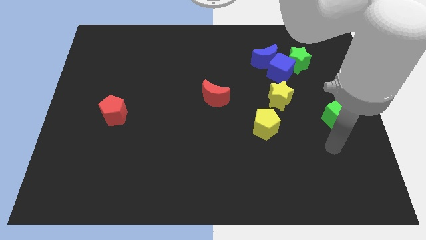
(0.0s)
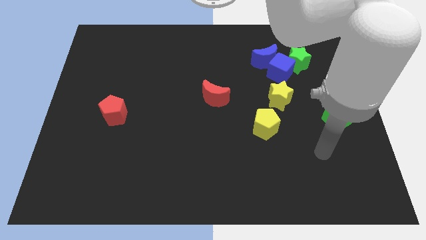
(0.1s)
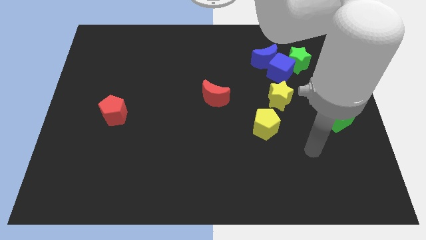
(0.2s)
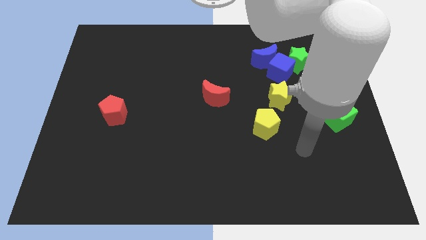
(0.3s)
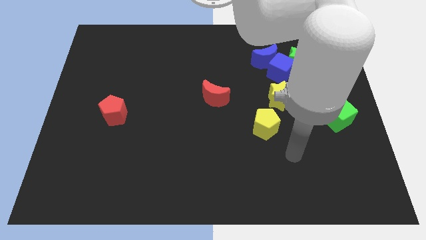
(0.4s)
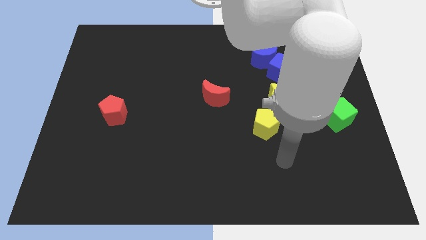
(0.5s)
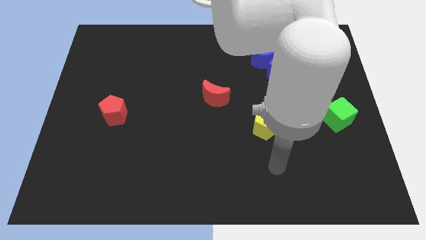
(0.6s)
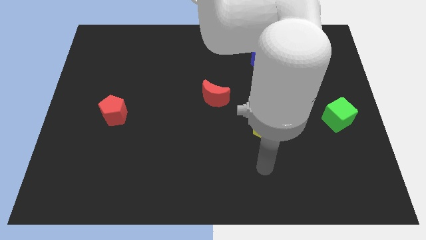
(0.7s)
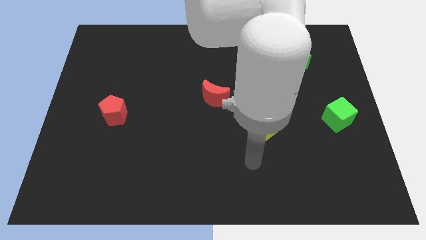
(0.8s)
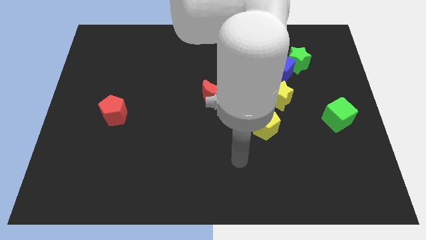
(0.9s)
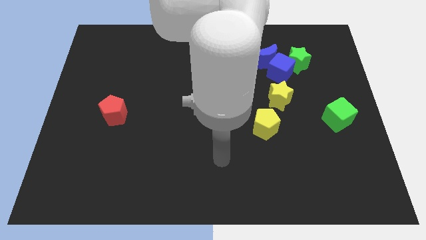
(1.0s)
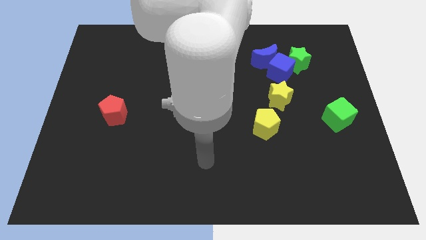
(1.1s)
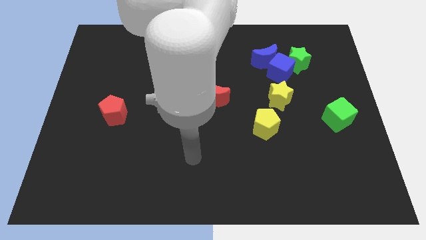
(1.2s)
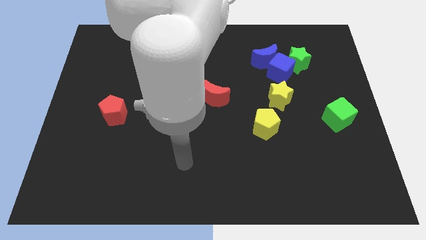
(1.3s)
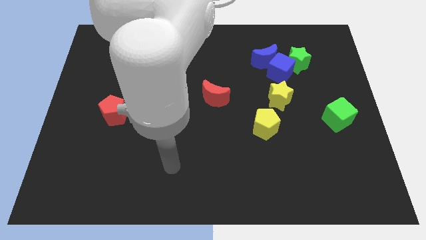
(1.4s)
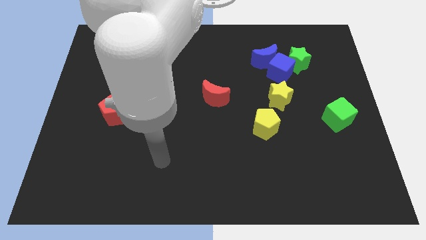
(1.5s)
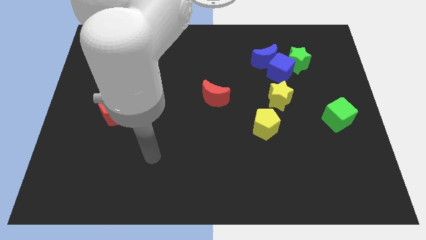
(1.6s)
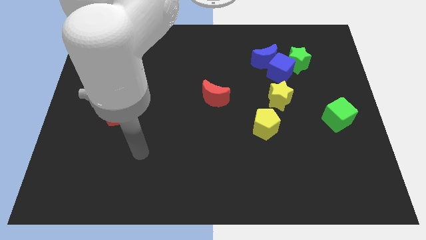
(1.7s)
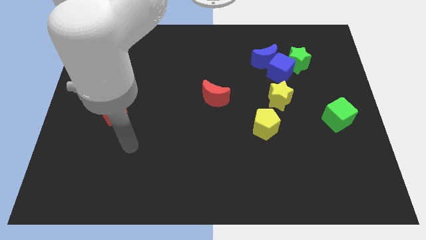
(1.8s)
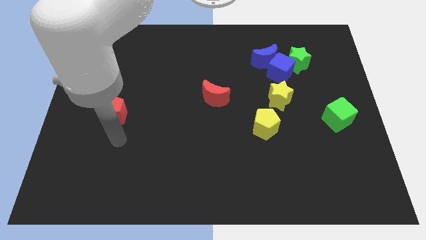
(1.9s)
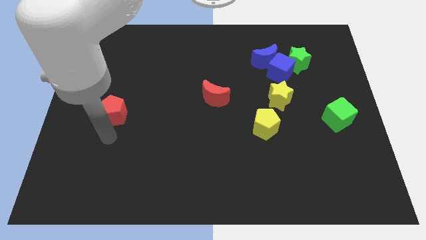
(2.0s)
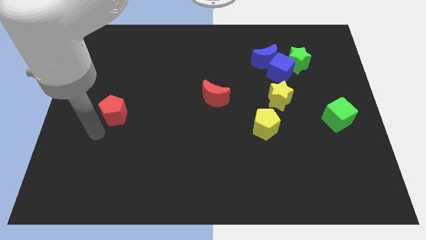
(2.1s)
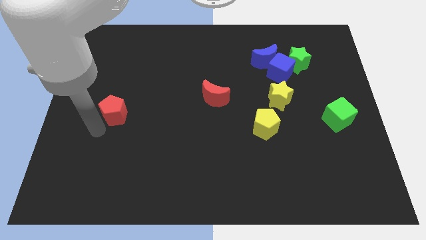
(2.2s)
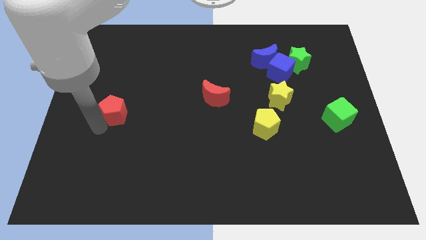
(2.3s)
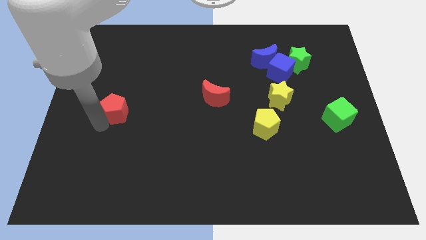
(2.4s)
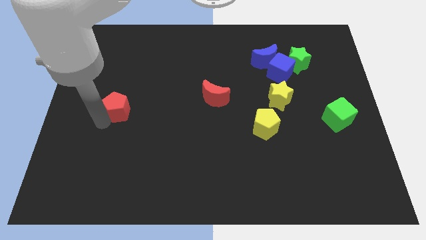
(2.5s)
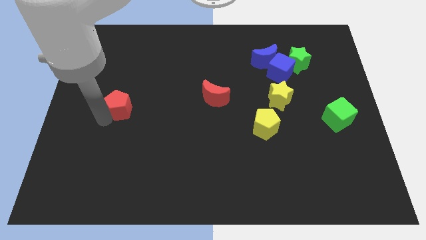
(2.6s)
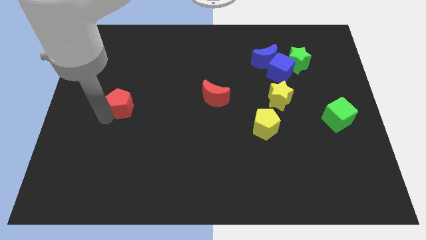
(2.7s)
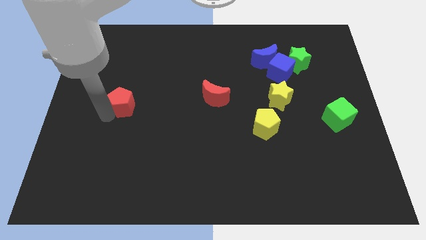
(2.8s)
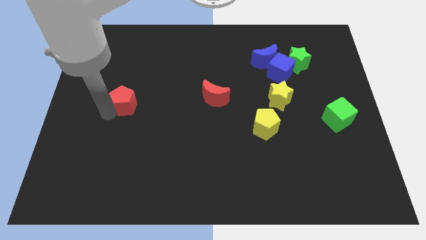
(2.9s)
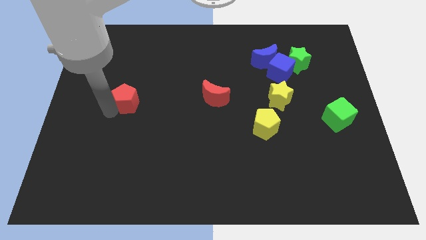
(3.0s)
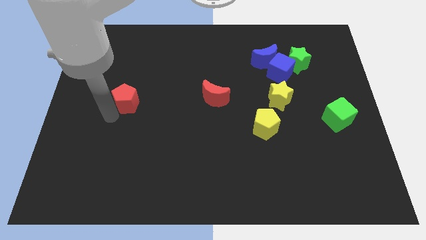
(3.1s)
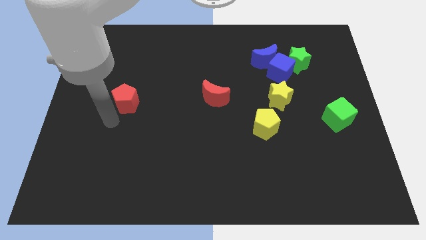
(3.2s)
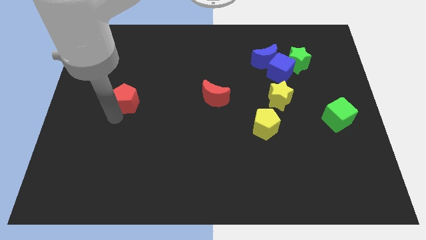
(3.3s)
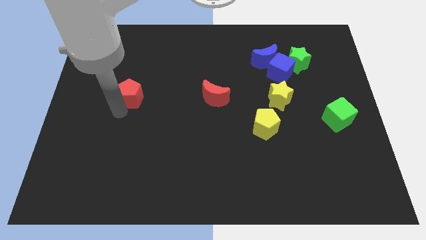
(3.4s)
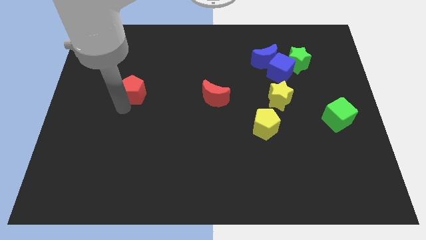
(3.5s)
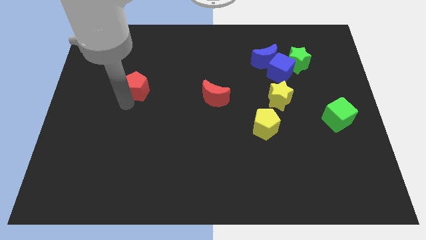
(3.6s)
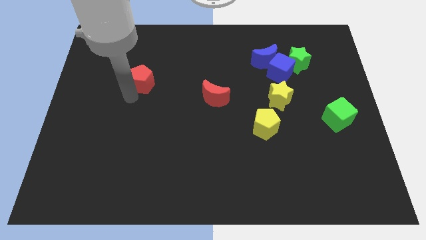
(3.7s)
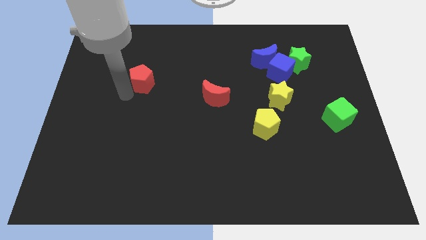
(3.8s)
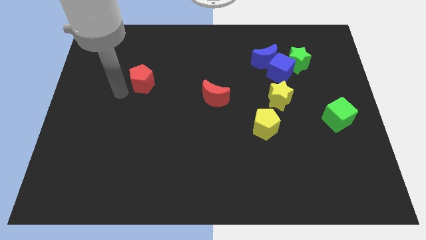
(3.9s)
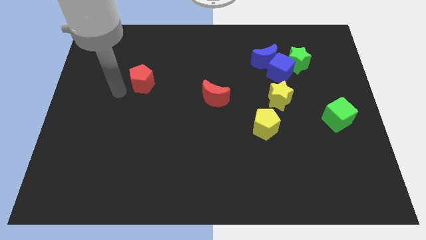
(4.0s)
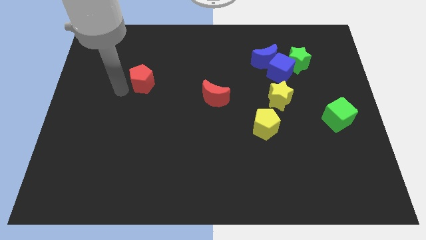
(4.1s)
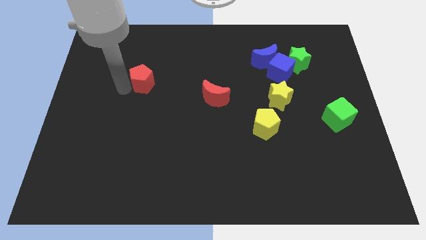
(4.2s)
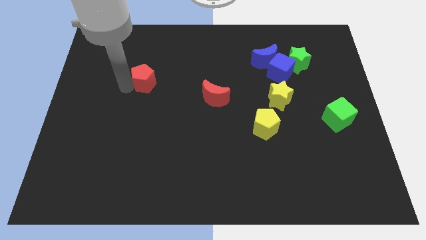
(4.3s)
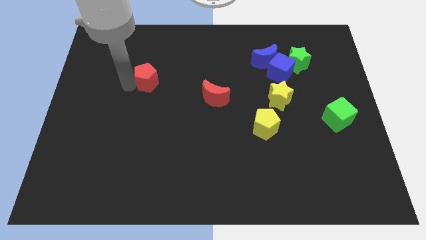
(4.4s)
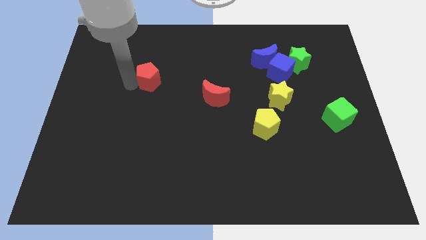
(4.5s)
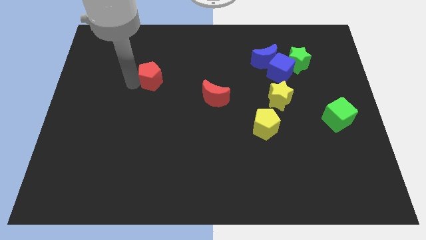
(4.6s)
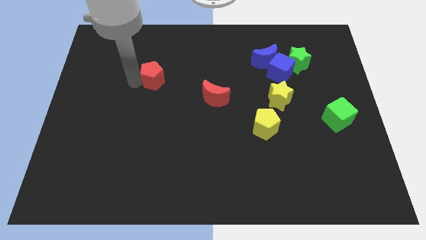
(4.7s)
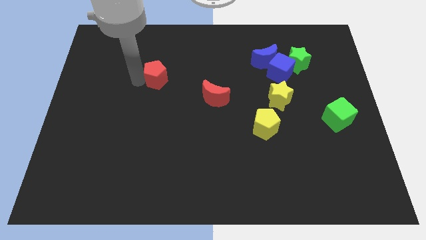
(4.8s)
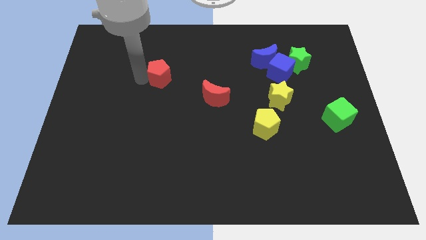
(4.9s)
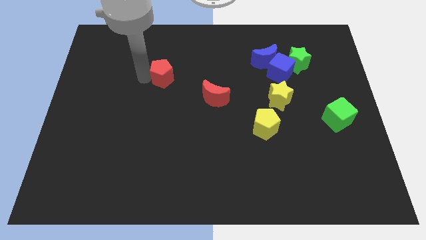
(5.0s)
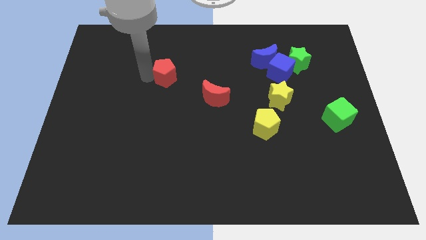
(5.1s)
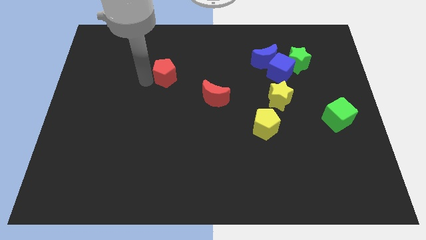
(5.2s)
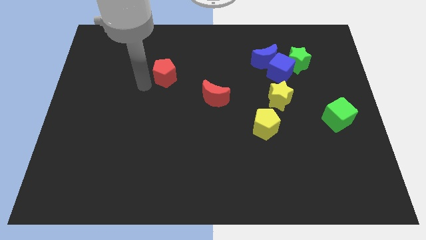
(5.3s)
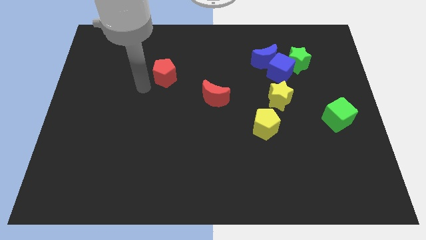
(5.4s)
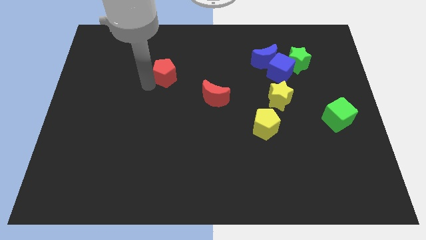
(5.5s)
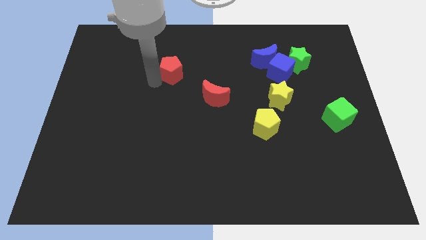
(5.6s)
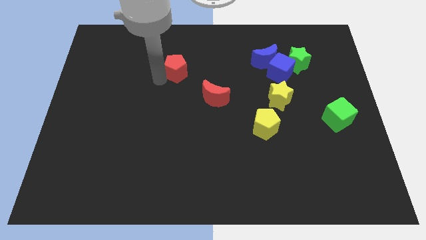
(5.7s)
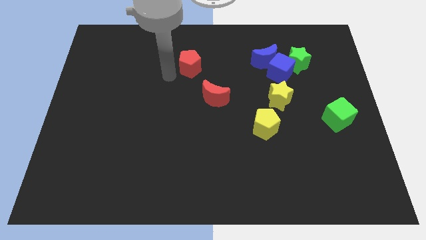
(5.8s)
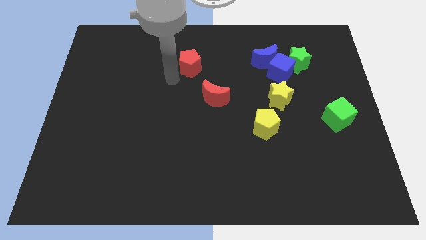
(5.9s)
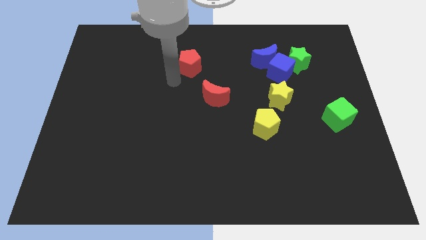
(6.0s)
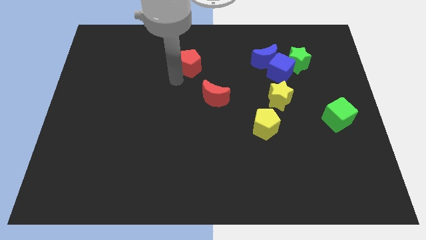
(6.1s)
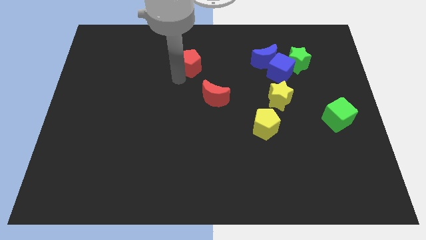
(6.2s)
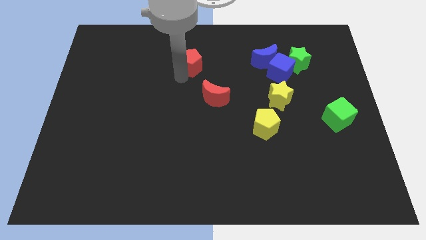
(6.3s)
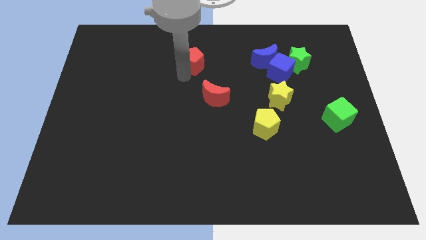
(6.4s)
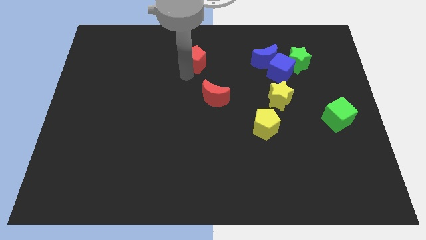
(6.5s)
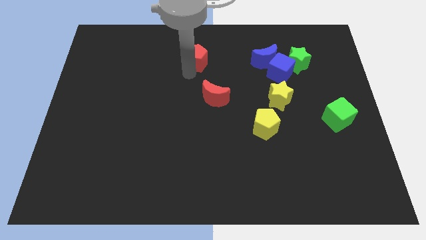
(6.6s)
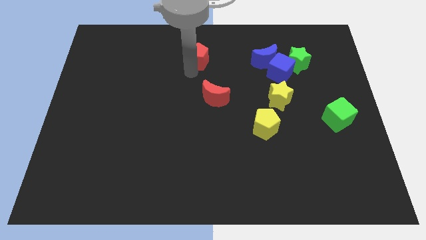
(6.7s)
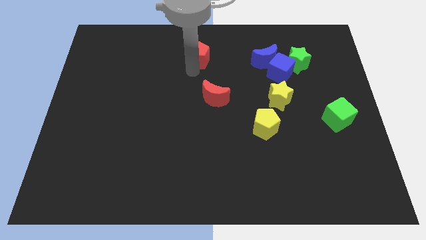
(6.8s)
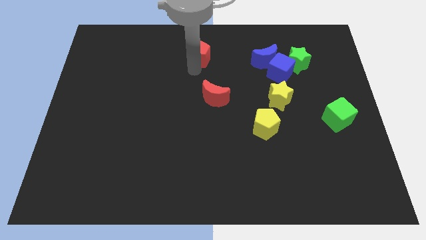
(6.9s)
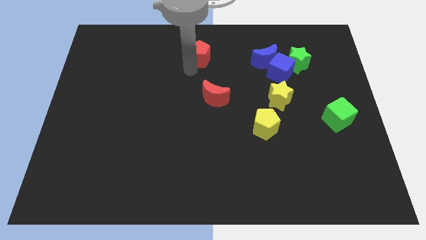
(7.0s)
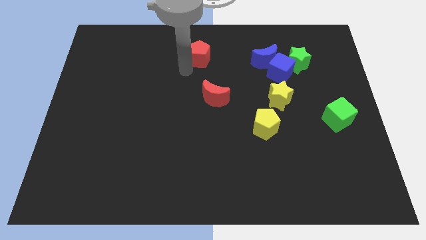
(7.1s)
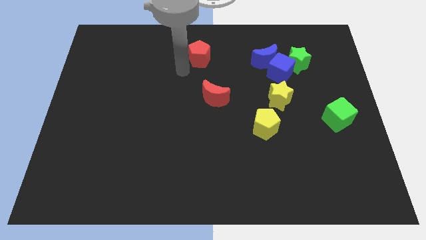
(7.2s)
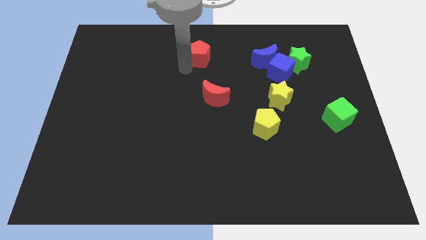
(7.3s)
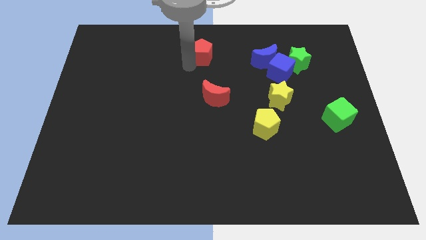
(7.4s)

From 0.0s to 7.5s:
move the red pentagon to the towards your base

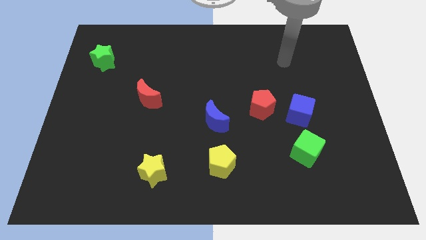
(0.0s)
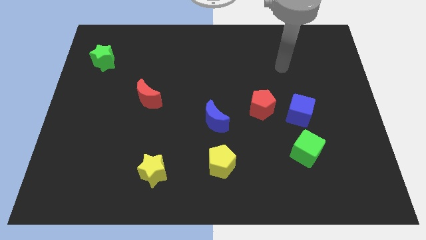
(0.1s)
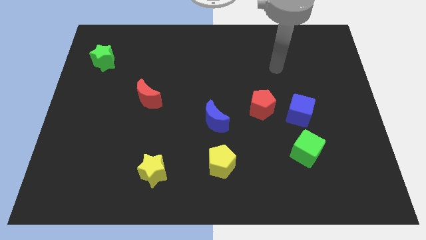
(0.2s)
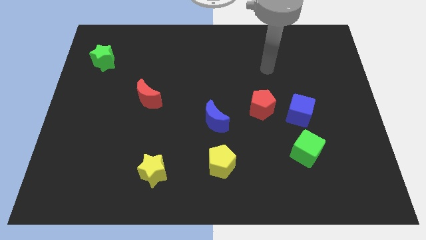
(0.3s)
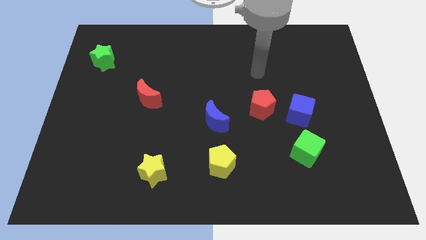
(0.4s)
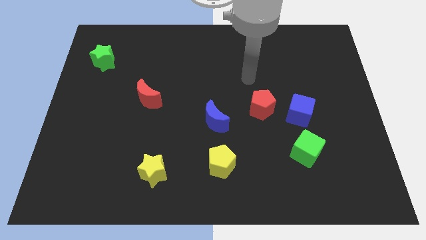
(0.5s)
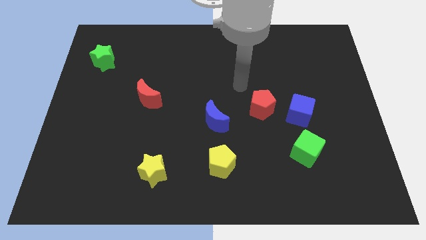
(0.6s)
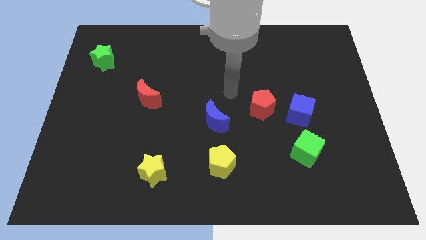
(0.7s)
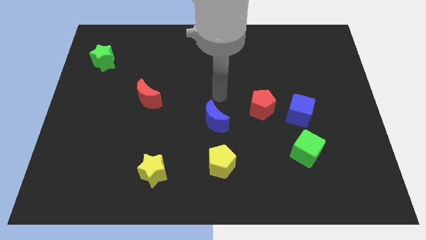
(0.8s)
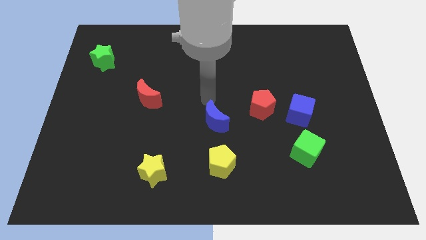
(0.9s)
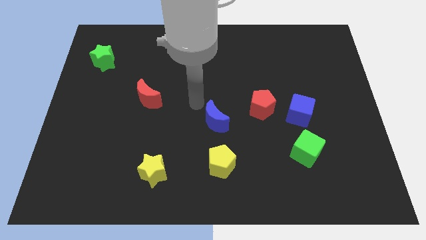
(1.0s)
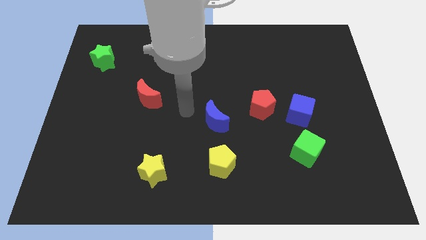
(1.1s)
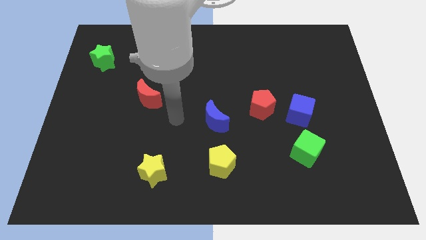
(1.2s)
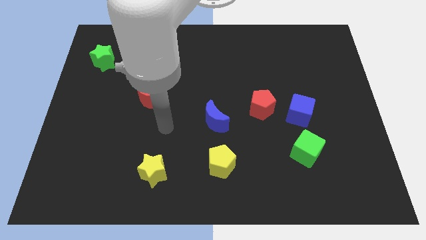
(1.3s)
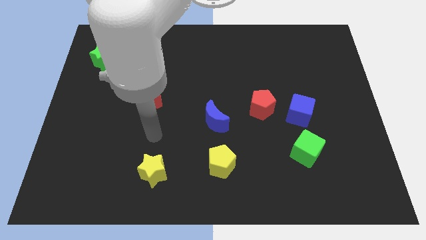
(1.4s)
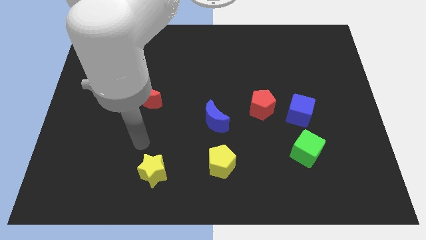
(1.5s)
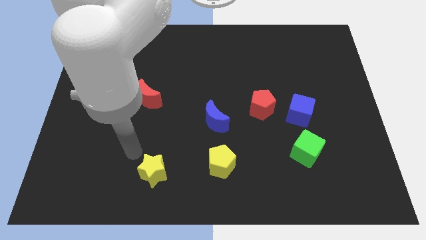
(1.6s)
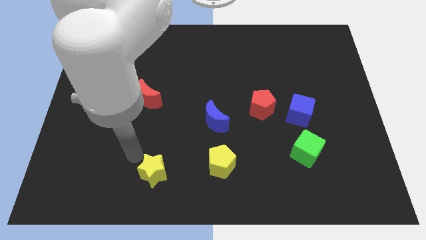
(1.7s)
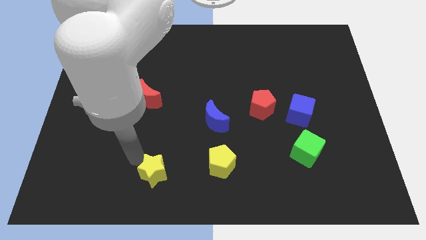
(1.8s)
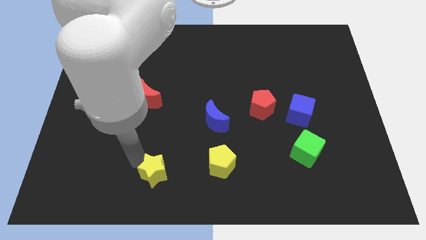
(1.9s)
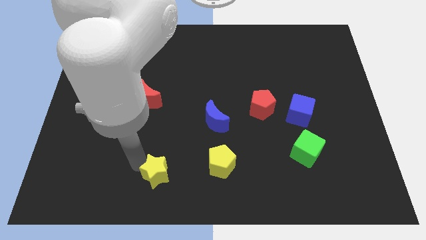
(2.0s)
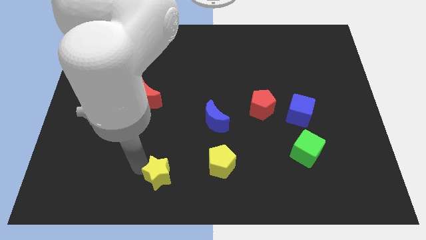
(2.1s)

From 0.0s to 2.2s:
move the yellow star to the bottom side
